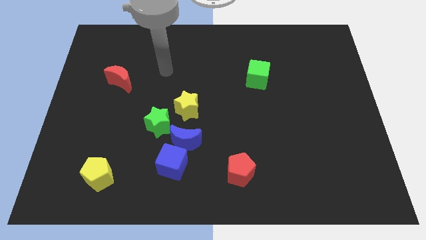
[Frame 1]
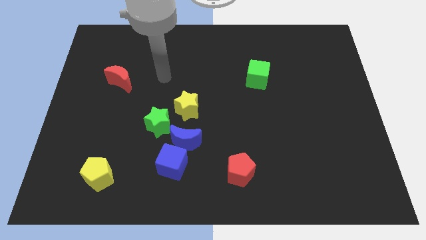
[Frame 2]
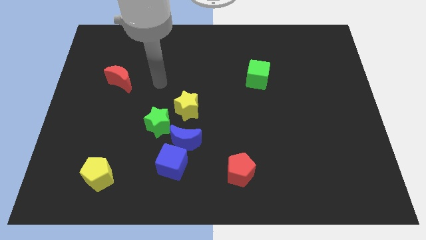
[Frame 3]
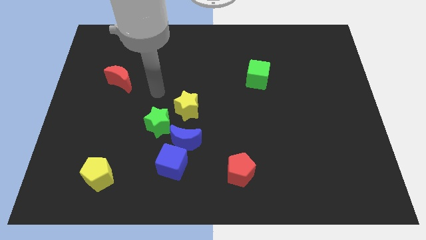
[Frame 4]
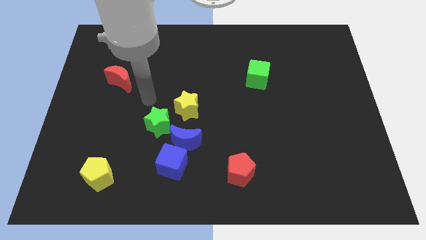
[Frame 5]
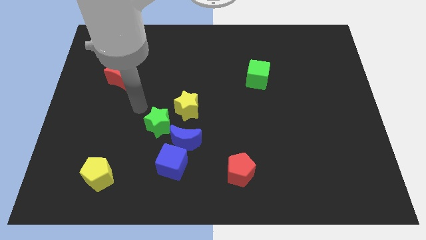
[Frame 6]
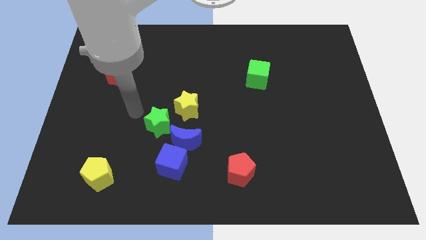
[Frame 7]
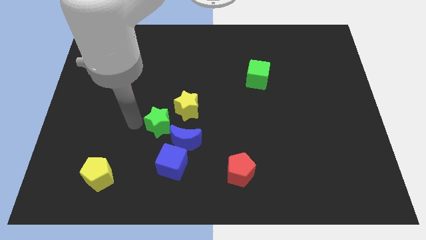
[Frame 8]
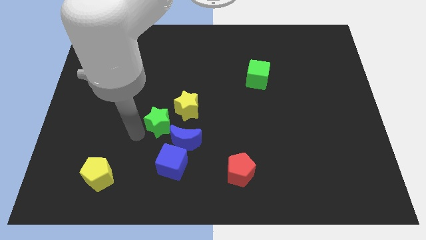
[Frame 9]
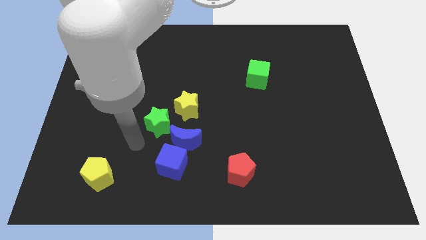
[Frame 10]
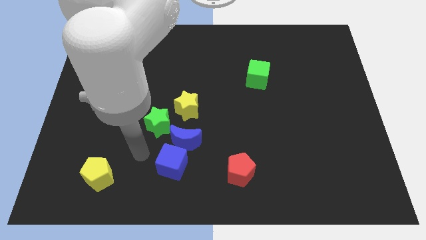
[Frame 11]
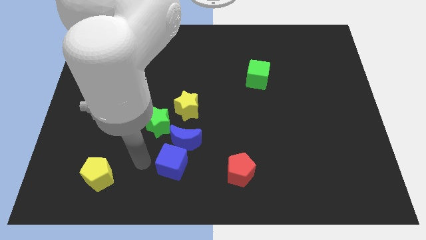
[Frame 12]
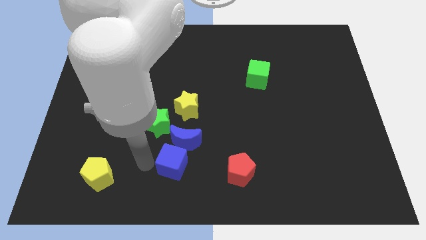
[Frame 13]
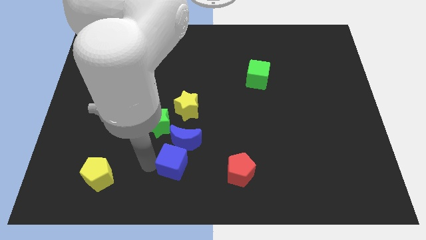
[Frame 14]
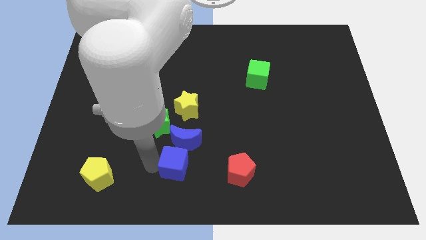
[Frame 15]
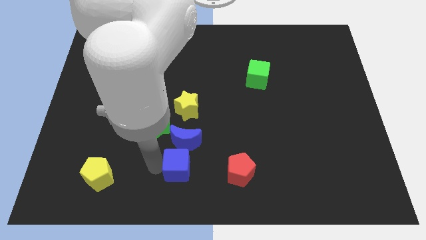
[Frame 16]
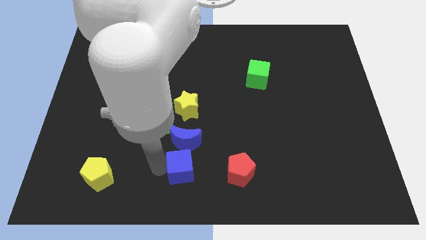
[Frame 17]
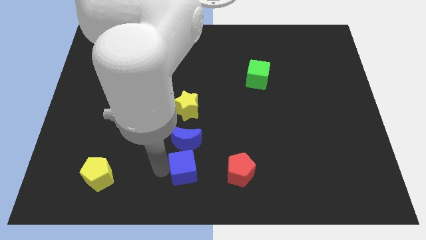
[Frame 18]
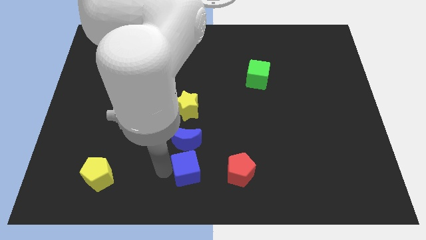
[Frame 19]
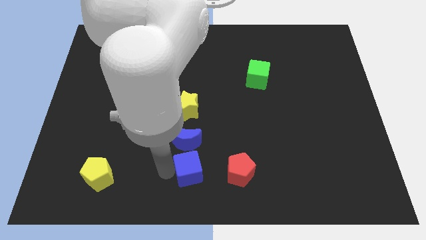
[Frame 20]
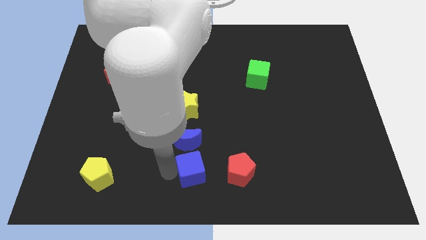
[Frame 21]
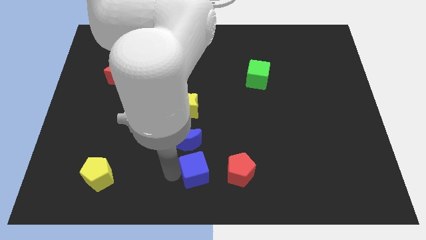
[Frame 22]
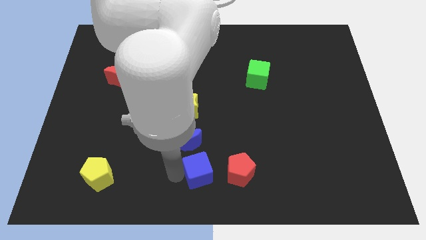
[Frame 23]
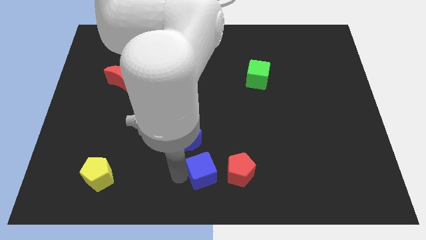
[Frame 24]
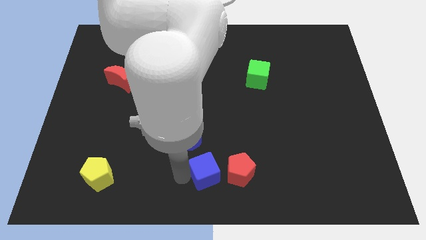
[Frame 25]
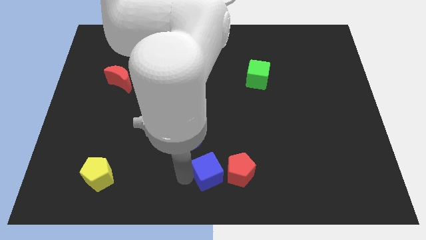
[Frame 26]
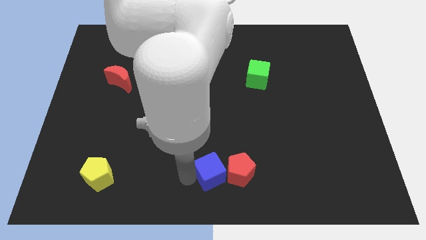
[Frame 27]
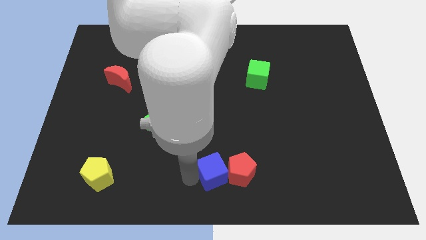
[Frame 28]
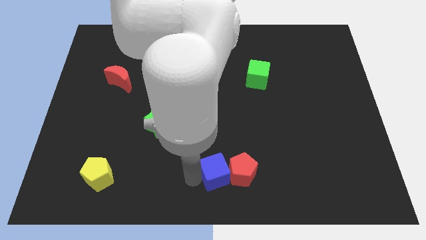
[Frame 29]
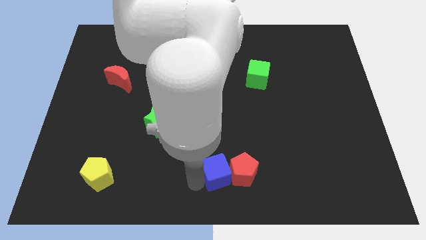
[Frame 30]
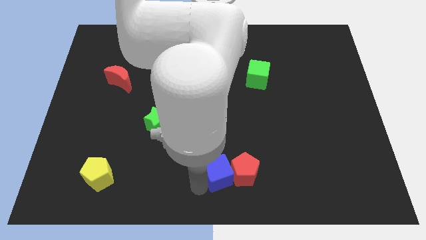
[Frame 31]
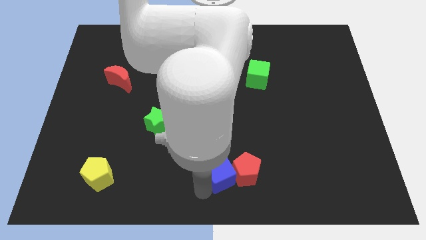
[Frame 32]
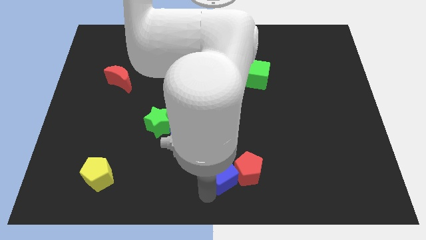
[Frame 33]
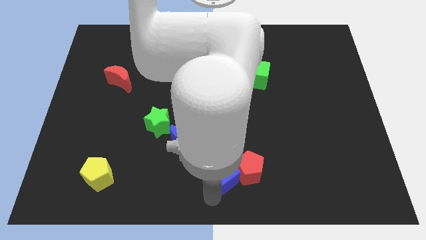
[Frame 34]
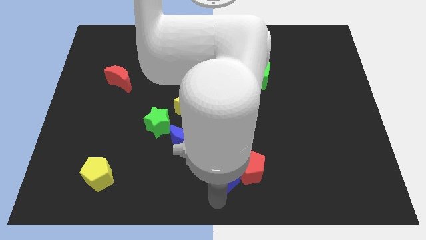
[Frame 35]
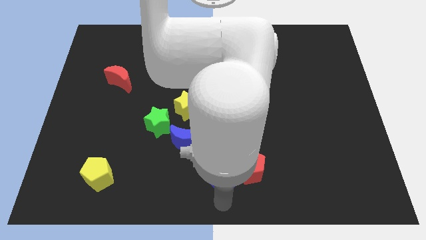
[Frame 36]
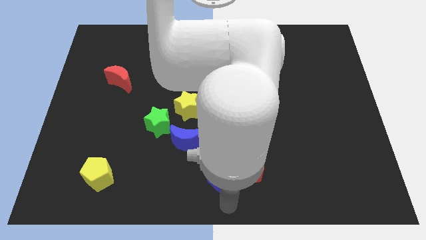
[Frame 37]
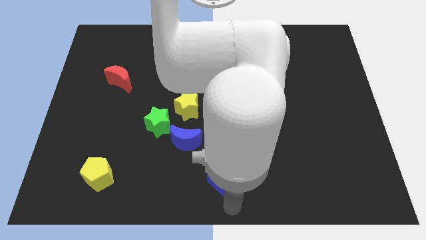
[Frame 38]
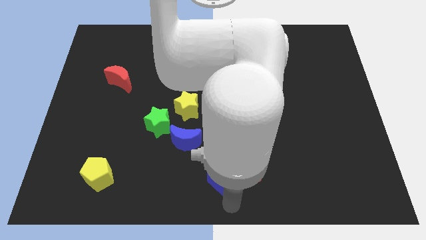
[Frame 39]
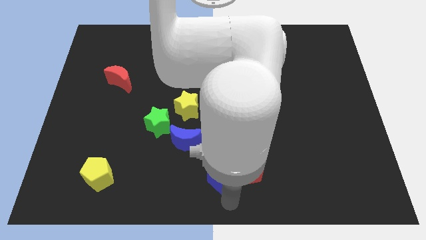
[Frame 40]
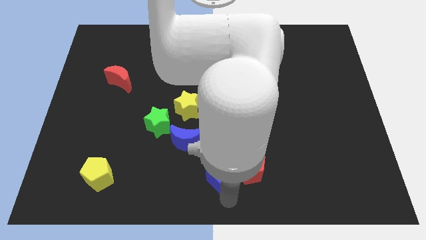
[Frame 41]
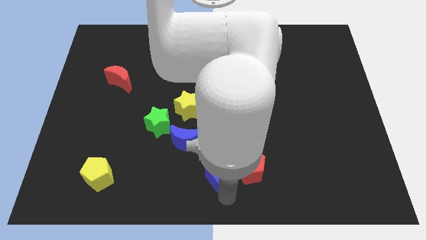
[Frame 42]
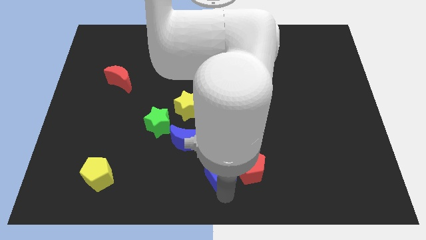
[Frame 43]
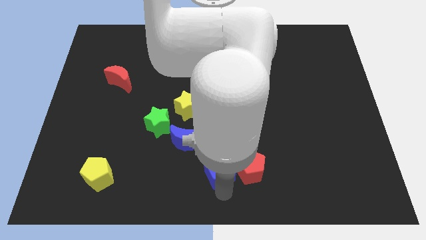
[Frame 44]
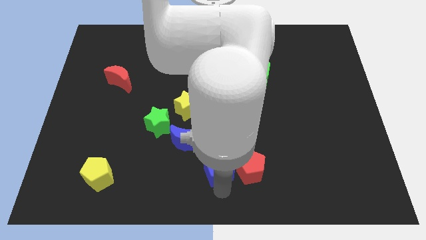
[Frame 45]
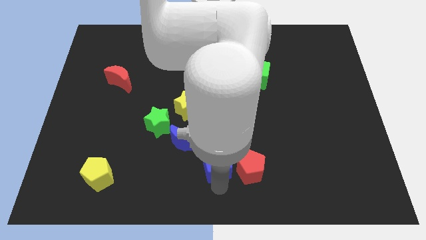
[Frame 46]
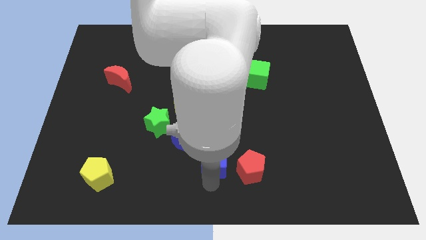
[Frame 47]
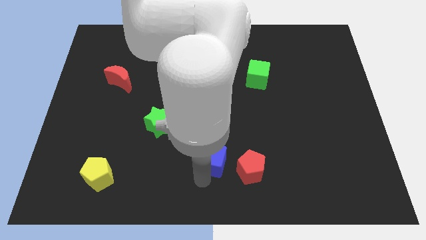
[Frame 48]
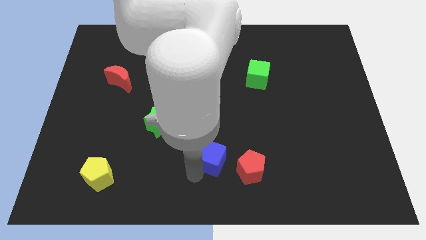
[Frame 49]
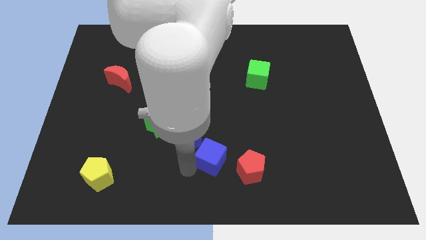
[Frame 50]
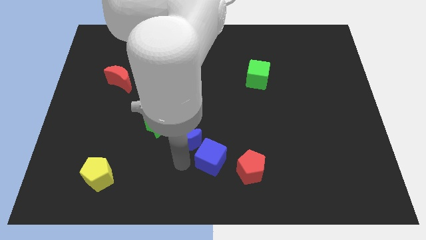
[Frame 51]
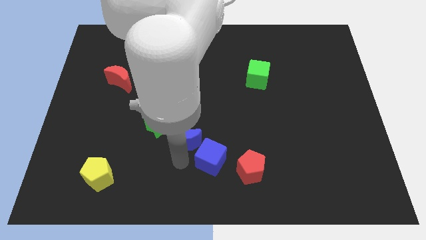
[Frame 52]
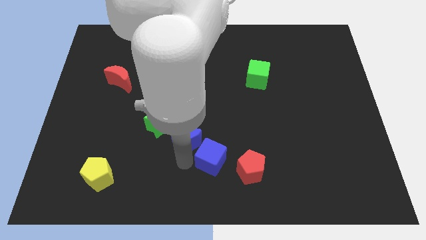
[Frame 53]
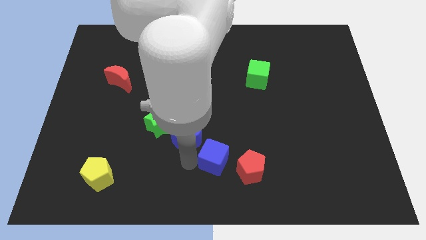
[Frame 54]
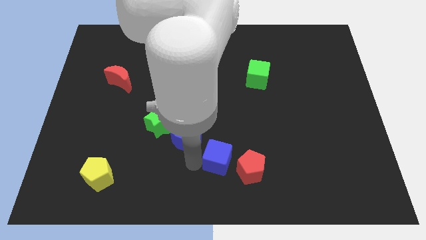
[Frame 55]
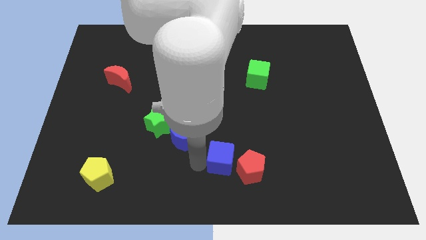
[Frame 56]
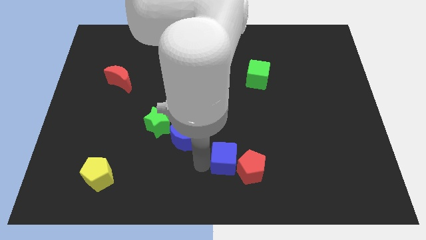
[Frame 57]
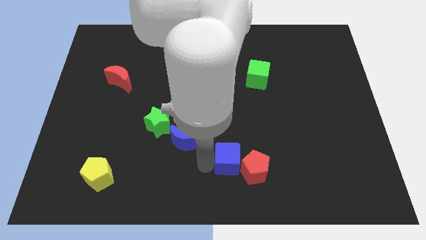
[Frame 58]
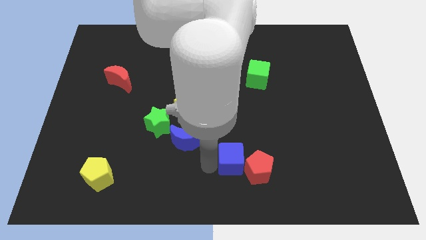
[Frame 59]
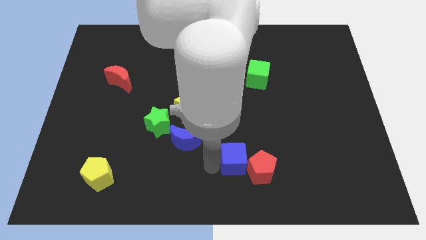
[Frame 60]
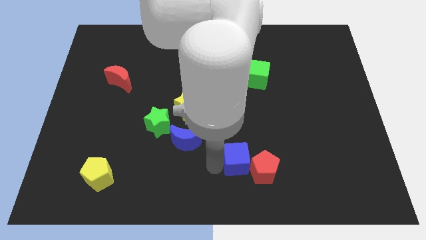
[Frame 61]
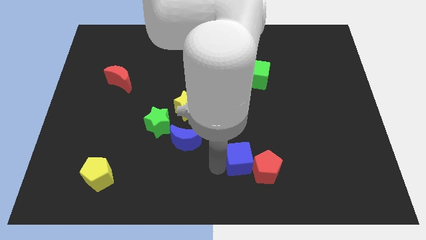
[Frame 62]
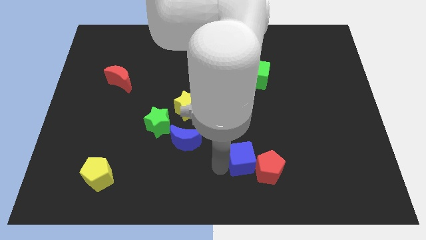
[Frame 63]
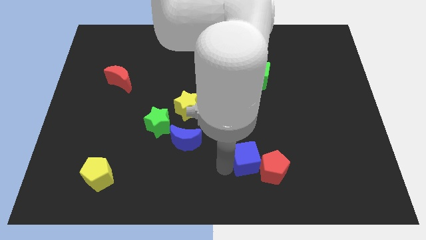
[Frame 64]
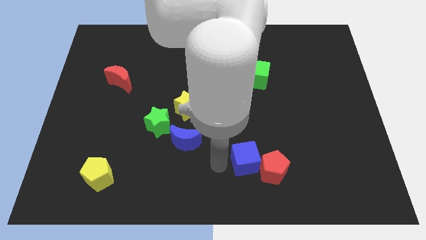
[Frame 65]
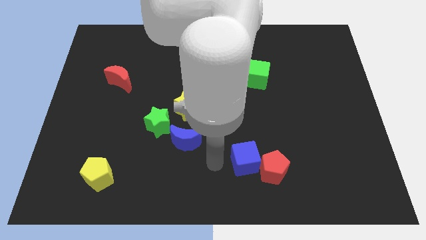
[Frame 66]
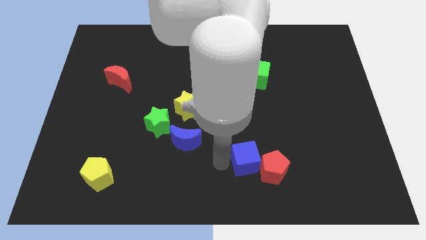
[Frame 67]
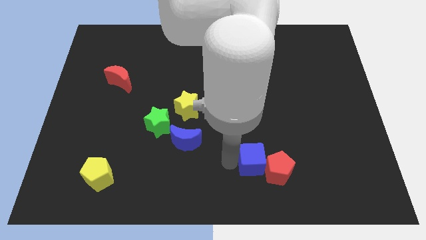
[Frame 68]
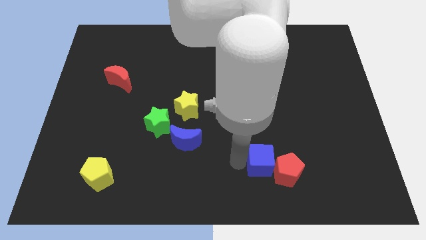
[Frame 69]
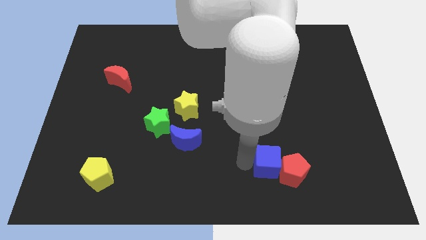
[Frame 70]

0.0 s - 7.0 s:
slide the blue cube right

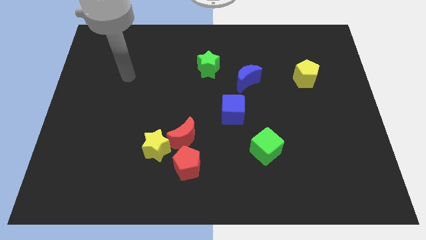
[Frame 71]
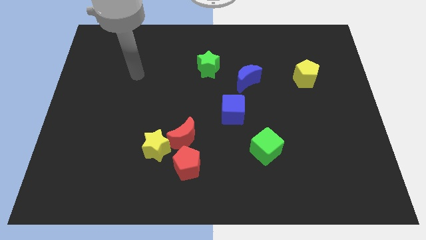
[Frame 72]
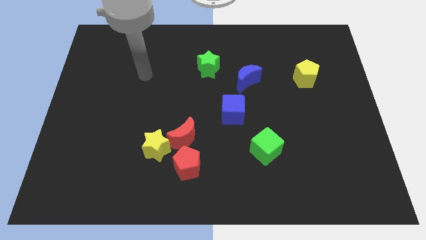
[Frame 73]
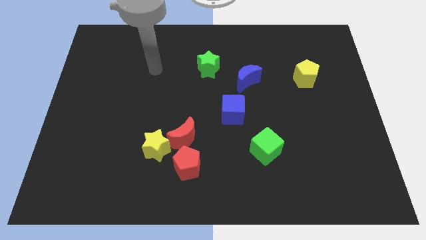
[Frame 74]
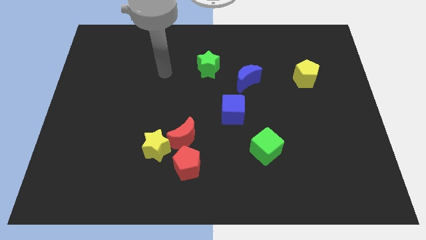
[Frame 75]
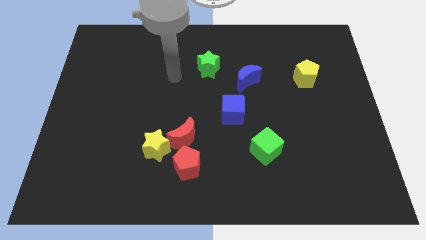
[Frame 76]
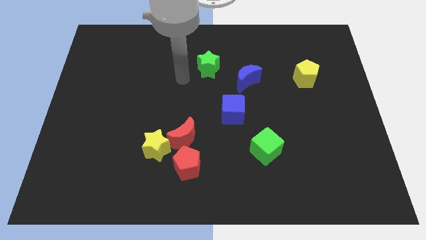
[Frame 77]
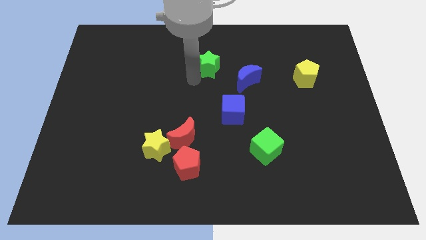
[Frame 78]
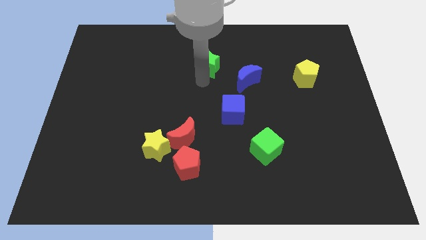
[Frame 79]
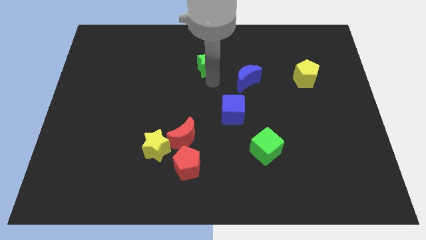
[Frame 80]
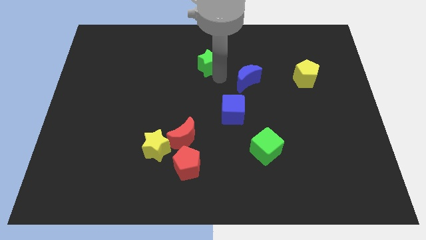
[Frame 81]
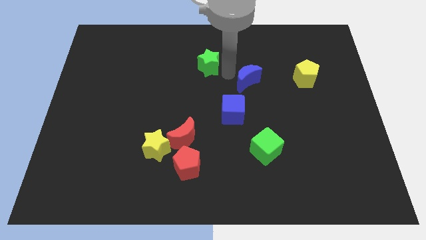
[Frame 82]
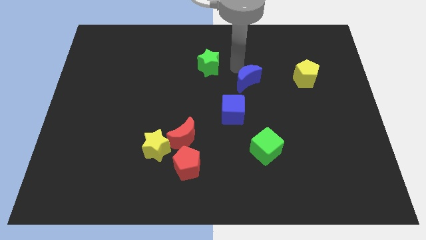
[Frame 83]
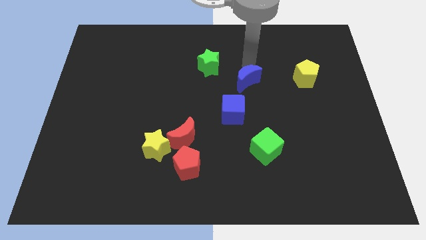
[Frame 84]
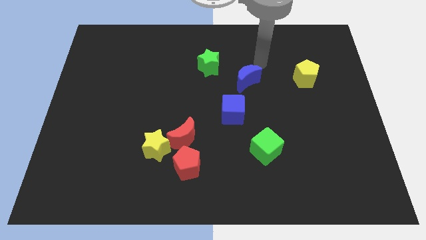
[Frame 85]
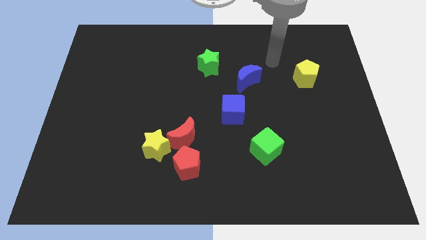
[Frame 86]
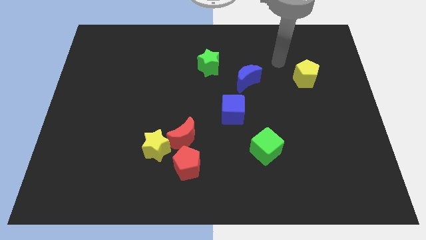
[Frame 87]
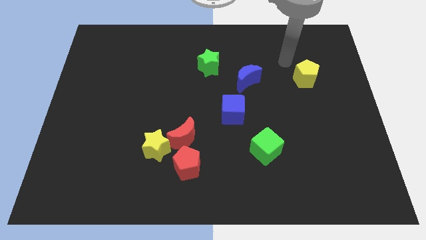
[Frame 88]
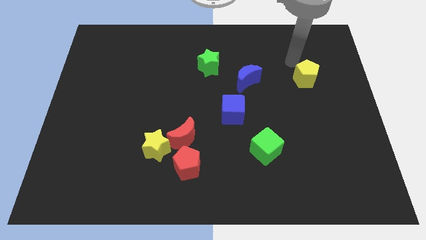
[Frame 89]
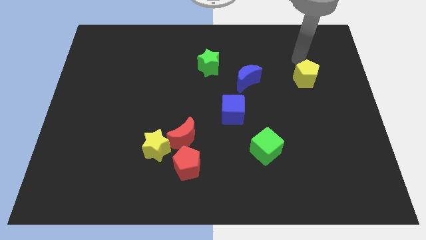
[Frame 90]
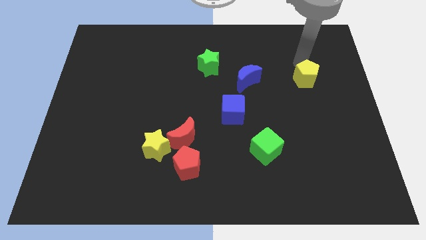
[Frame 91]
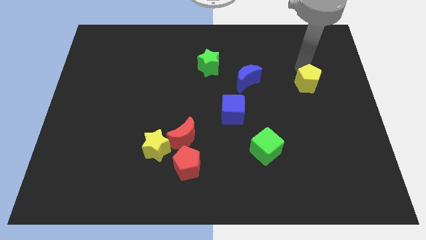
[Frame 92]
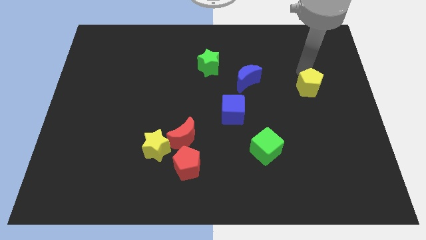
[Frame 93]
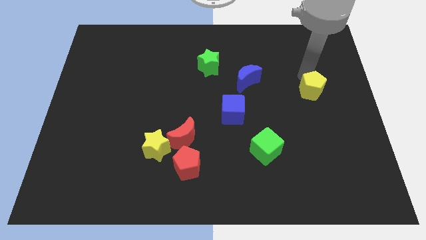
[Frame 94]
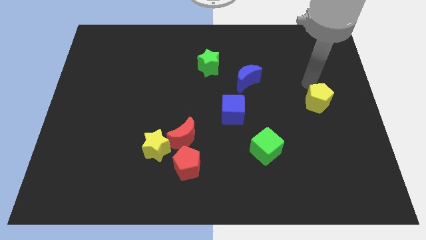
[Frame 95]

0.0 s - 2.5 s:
move the yellow pentagon a little down
